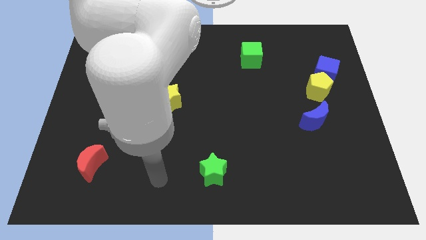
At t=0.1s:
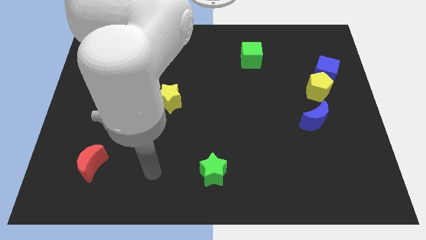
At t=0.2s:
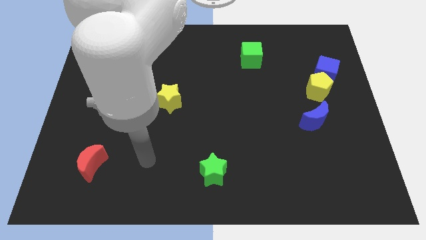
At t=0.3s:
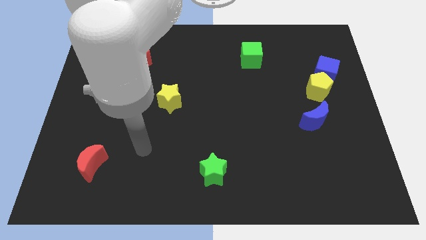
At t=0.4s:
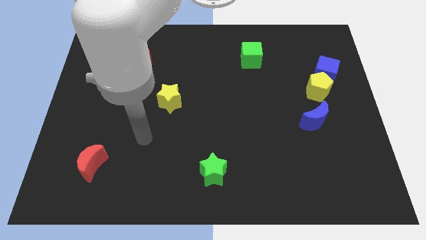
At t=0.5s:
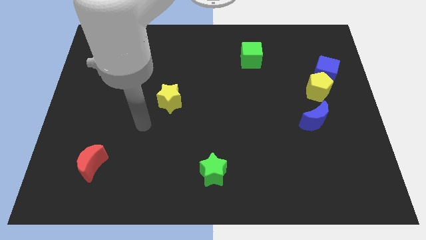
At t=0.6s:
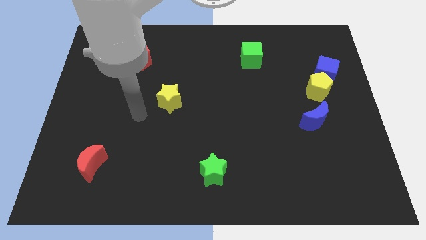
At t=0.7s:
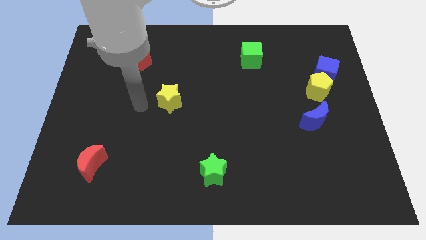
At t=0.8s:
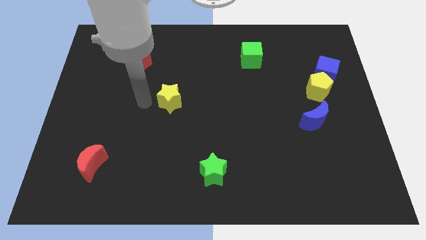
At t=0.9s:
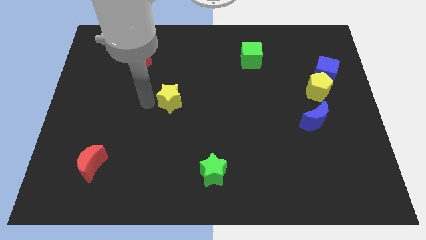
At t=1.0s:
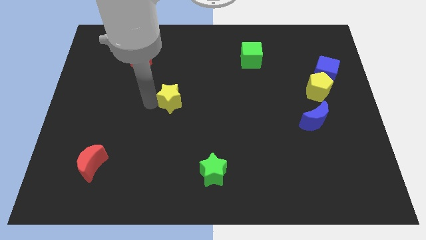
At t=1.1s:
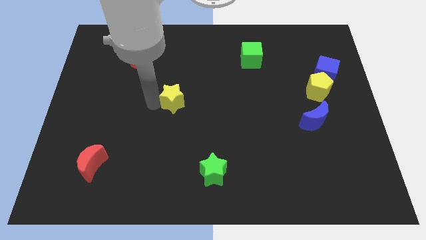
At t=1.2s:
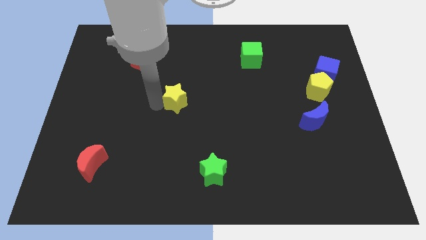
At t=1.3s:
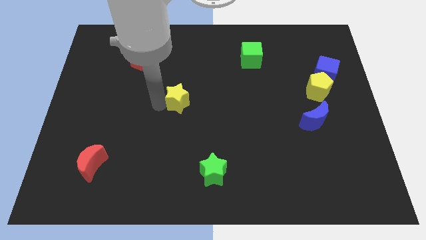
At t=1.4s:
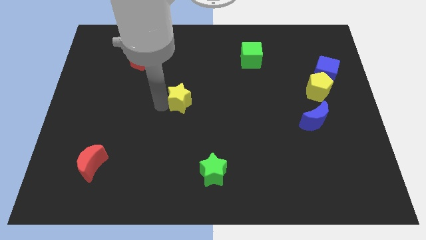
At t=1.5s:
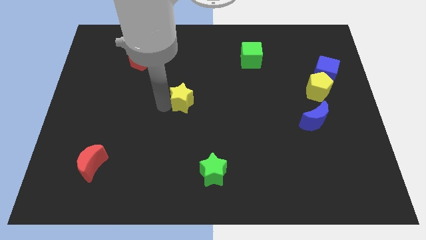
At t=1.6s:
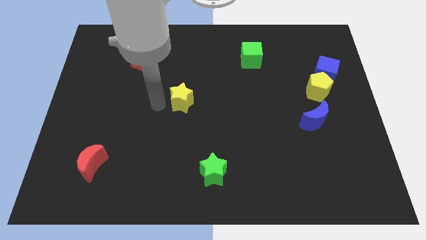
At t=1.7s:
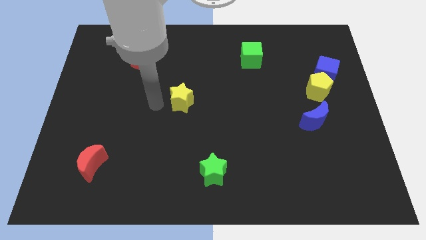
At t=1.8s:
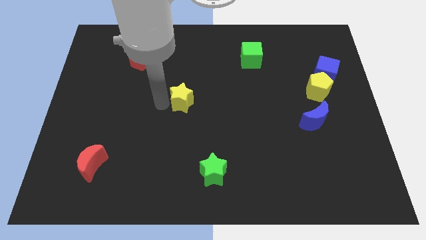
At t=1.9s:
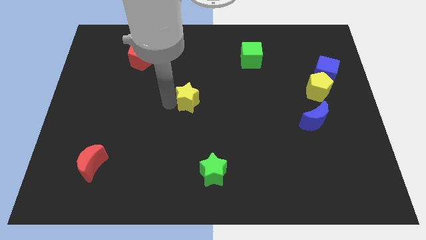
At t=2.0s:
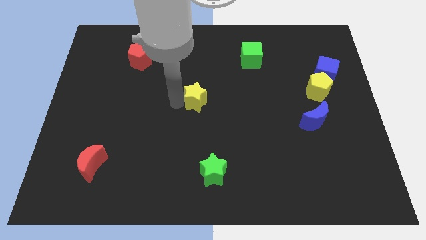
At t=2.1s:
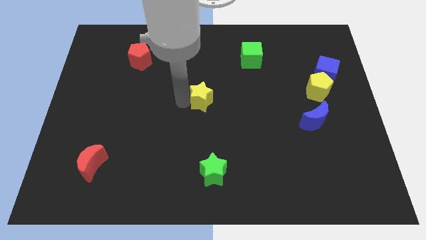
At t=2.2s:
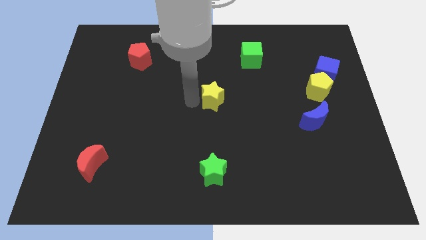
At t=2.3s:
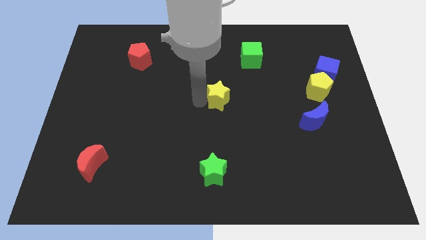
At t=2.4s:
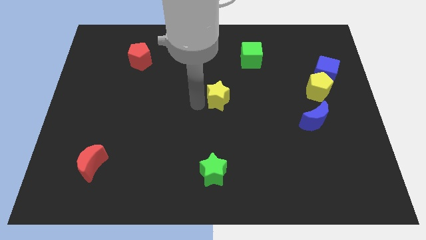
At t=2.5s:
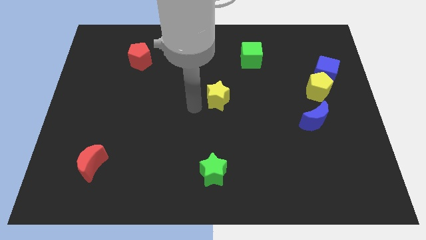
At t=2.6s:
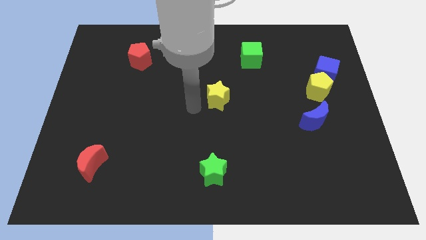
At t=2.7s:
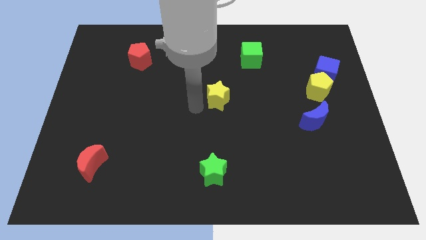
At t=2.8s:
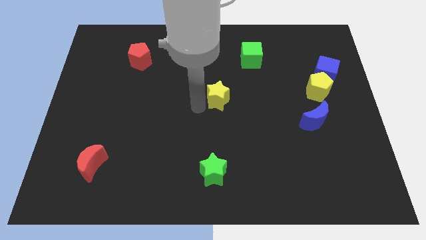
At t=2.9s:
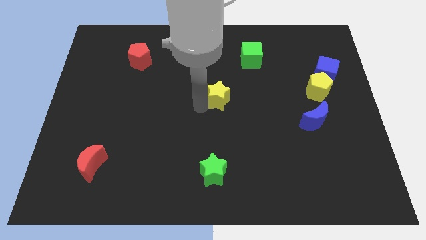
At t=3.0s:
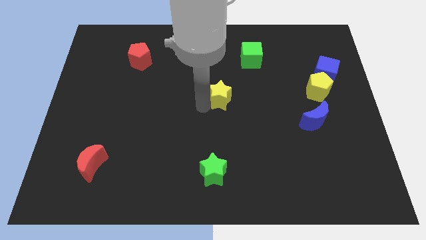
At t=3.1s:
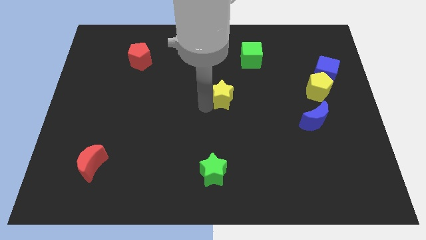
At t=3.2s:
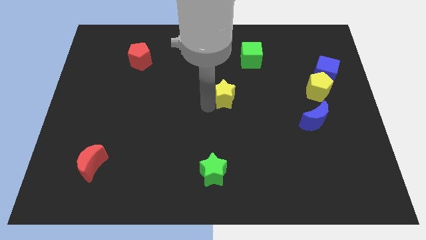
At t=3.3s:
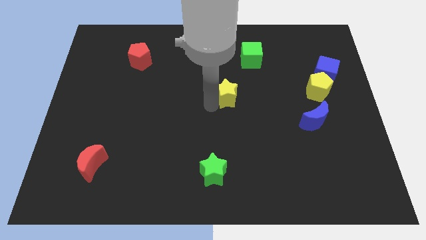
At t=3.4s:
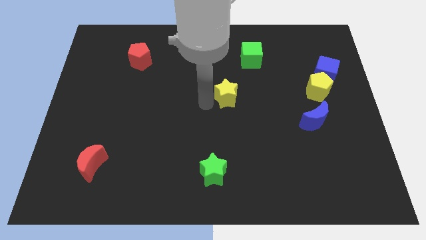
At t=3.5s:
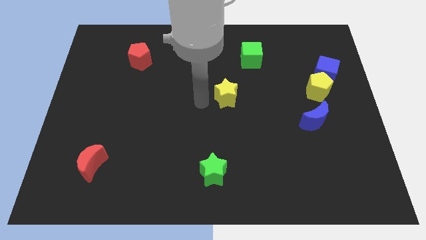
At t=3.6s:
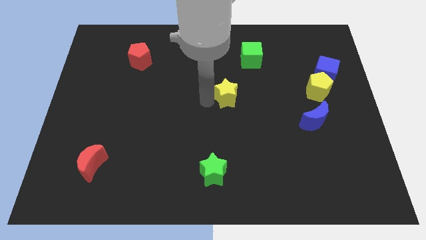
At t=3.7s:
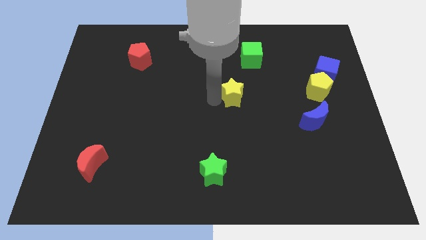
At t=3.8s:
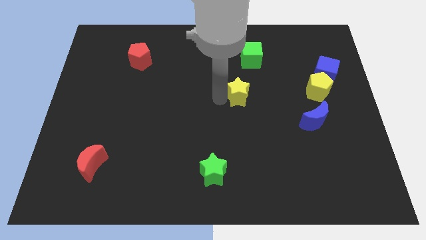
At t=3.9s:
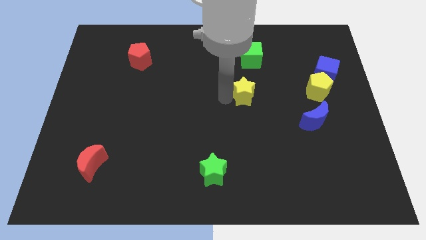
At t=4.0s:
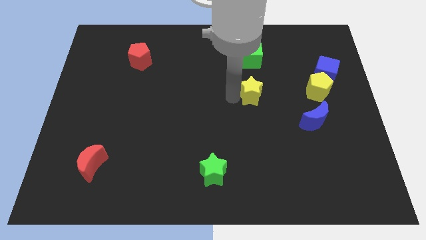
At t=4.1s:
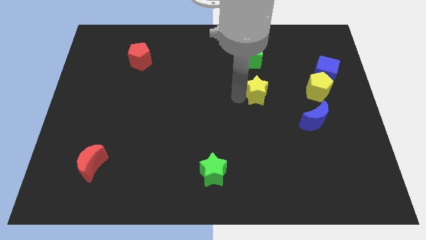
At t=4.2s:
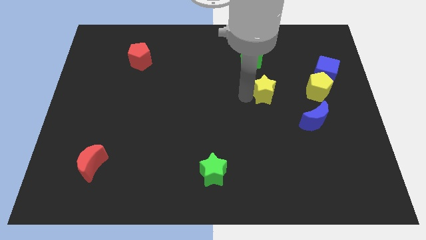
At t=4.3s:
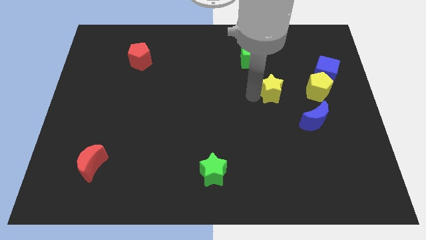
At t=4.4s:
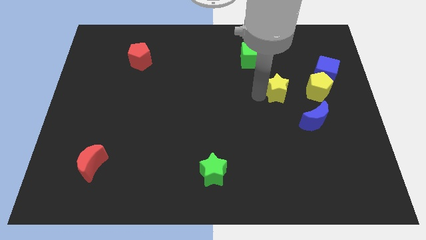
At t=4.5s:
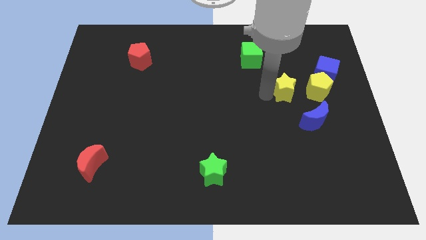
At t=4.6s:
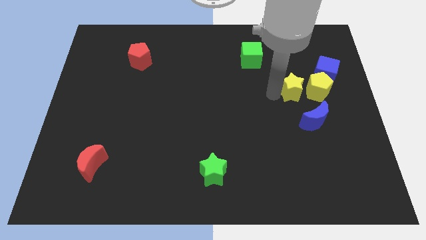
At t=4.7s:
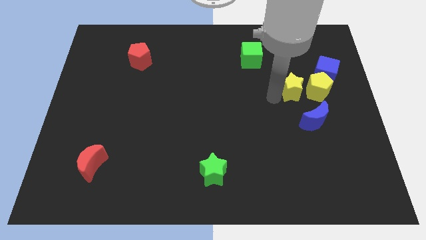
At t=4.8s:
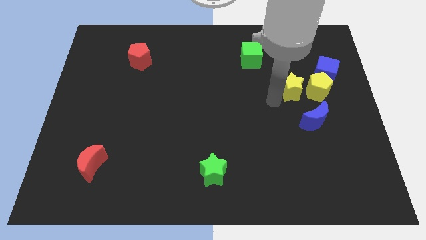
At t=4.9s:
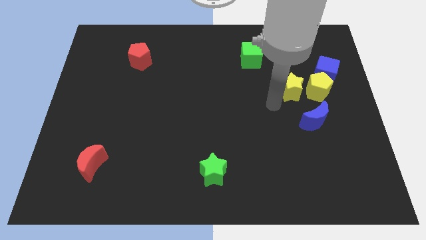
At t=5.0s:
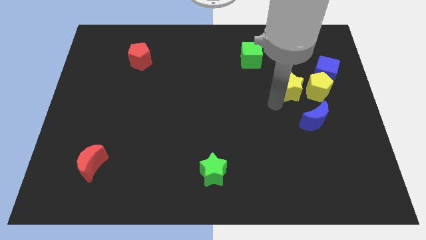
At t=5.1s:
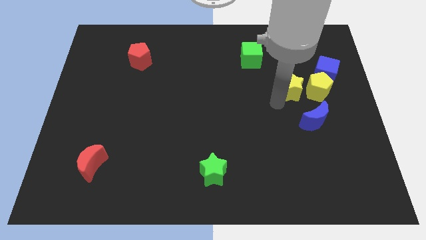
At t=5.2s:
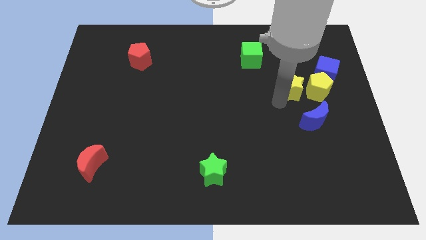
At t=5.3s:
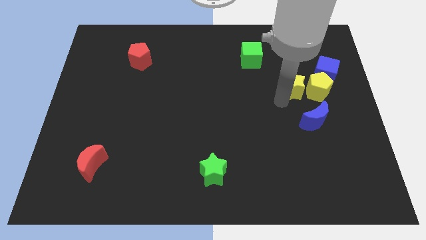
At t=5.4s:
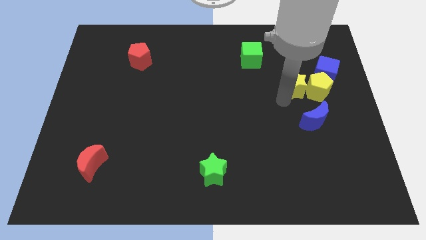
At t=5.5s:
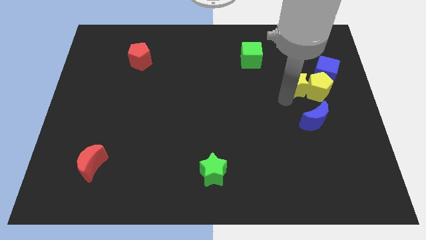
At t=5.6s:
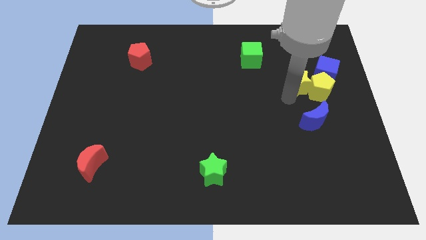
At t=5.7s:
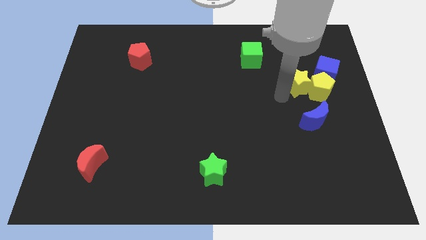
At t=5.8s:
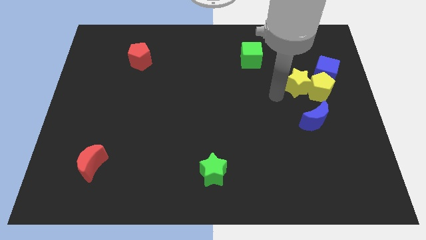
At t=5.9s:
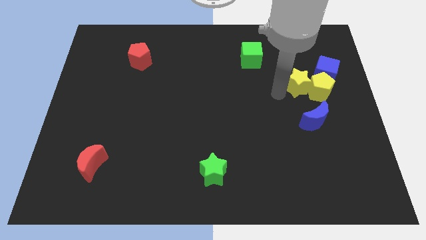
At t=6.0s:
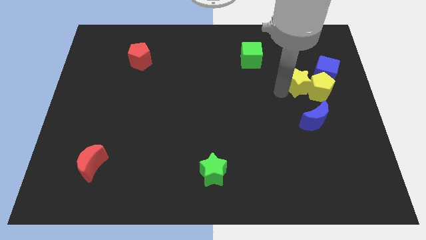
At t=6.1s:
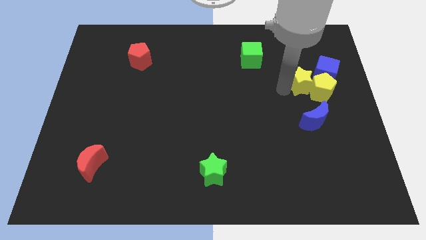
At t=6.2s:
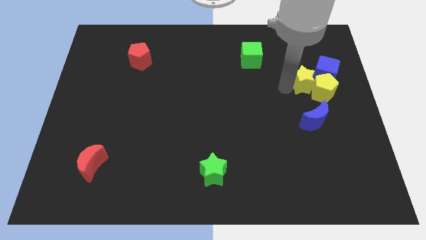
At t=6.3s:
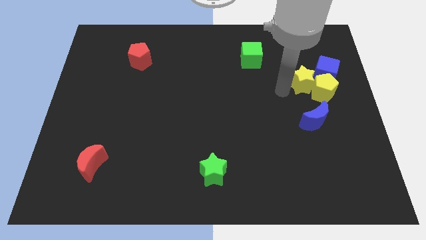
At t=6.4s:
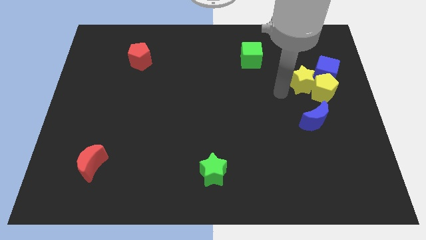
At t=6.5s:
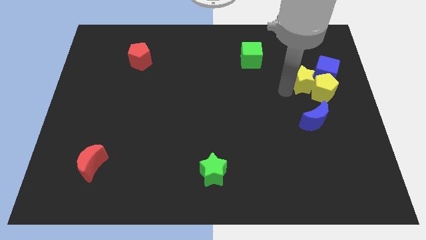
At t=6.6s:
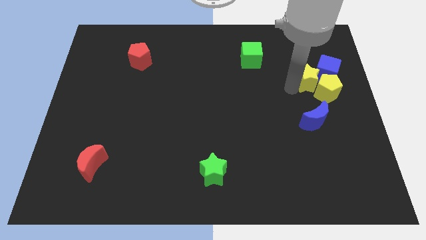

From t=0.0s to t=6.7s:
put the yellow star close to the blue cube
